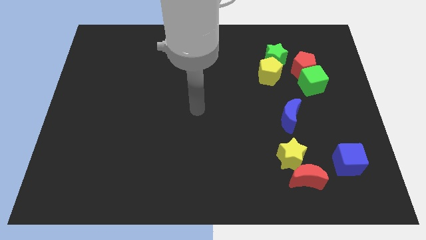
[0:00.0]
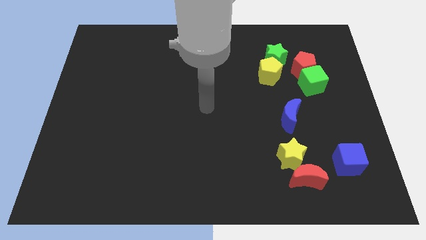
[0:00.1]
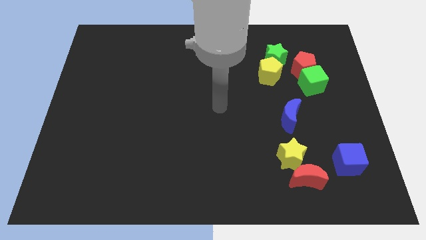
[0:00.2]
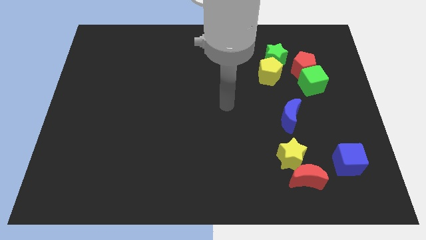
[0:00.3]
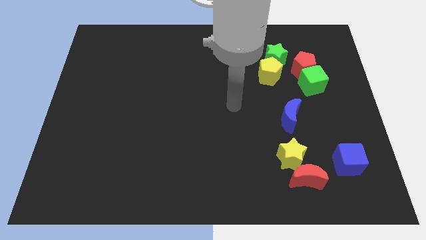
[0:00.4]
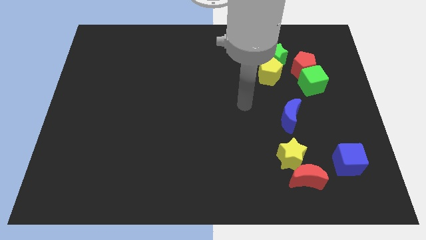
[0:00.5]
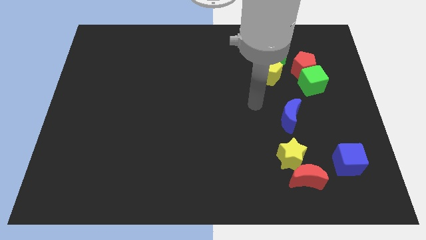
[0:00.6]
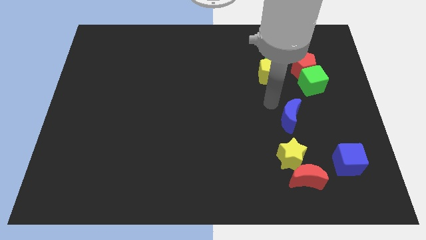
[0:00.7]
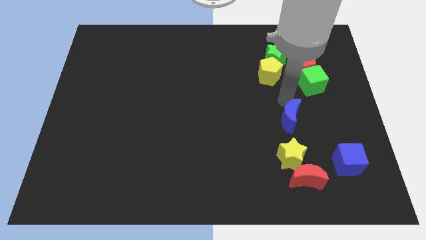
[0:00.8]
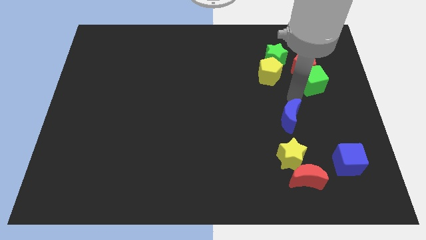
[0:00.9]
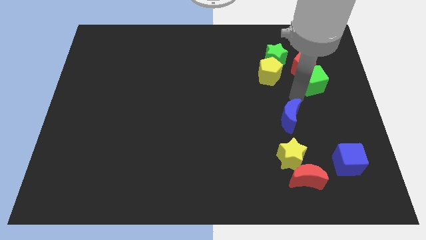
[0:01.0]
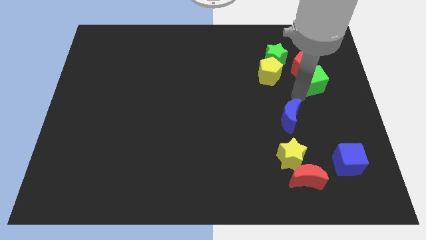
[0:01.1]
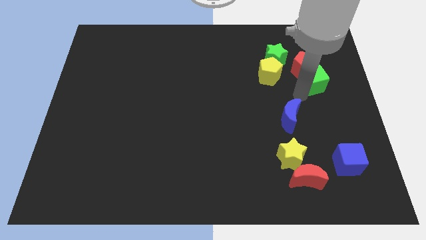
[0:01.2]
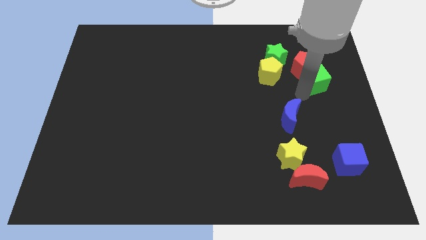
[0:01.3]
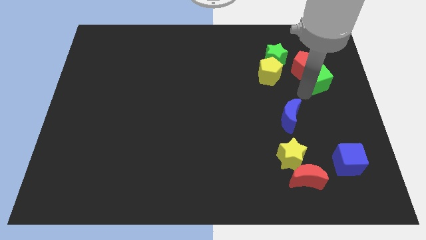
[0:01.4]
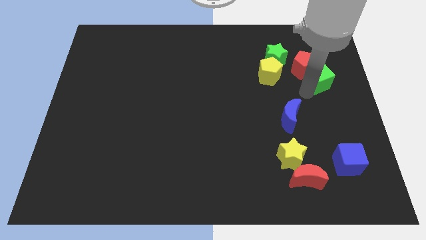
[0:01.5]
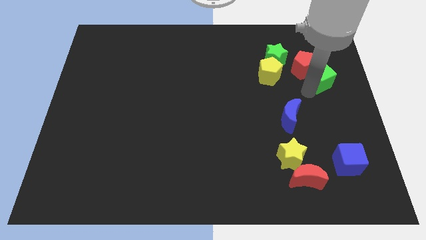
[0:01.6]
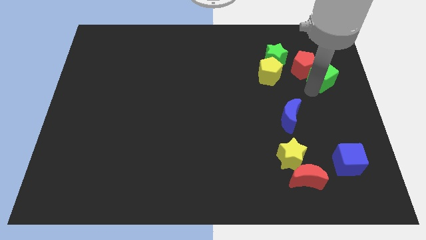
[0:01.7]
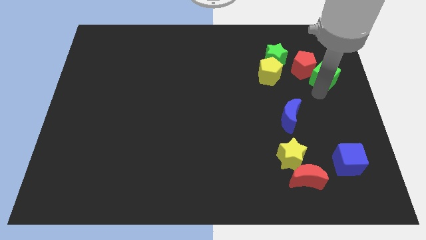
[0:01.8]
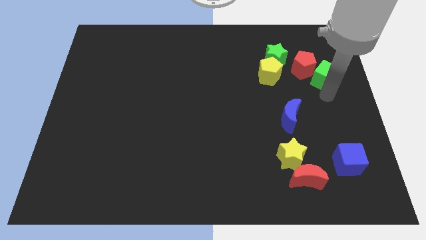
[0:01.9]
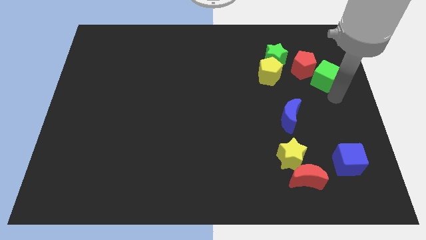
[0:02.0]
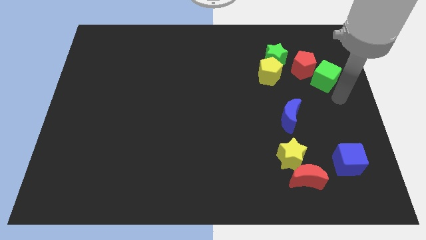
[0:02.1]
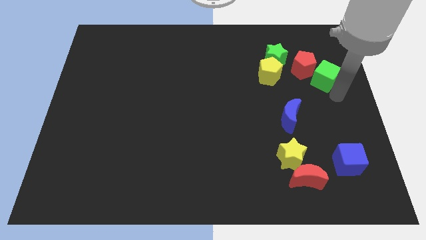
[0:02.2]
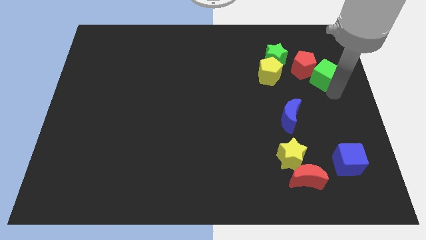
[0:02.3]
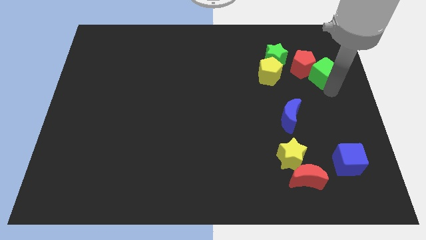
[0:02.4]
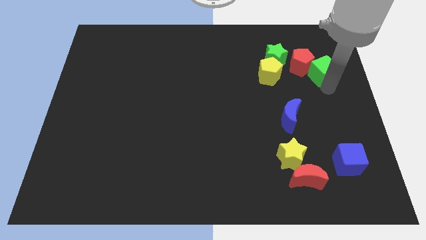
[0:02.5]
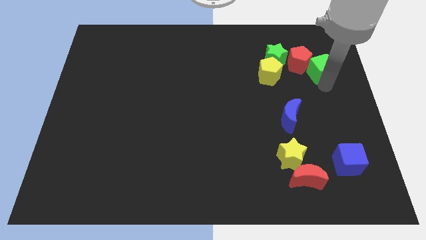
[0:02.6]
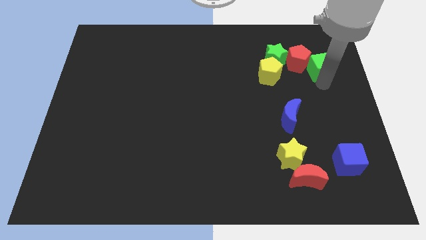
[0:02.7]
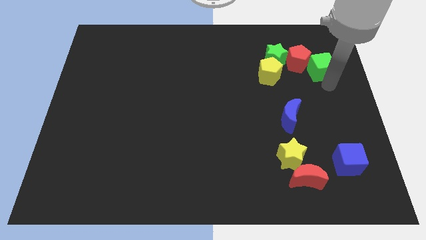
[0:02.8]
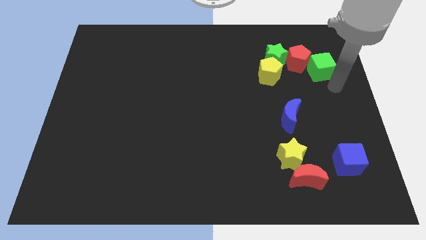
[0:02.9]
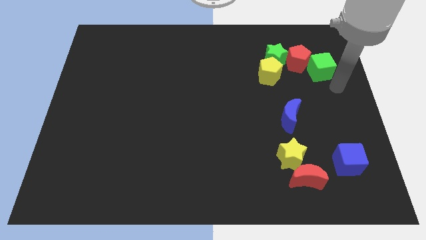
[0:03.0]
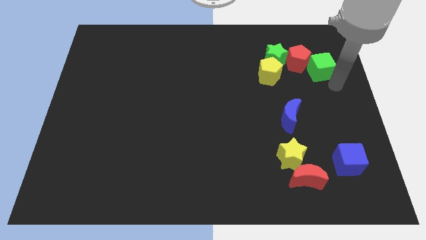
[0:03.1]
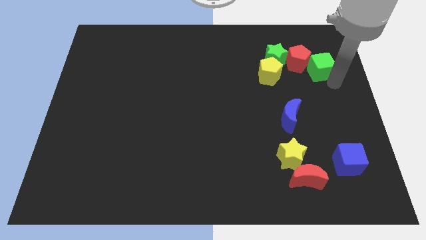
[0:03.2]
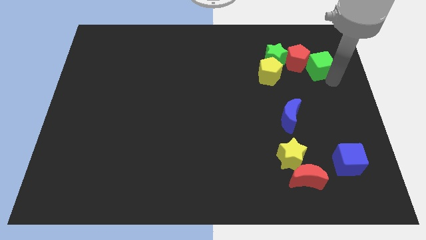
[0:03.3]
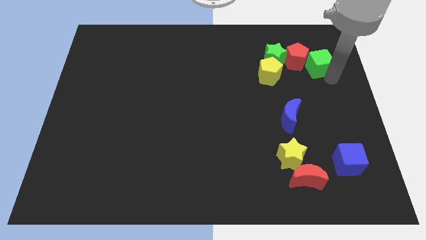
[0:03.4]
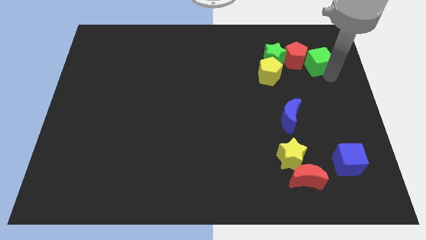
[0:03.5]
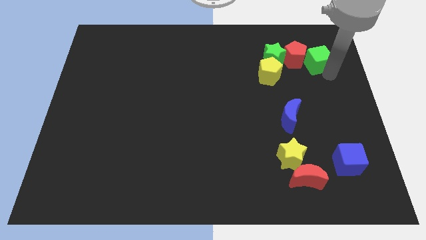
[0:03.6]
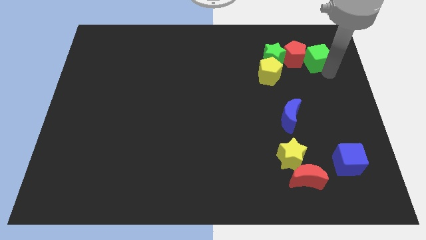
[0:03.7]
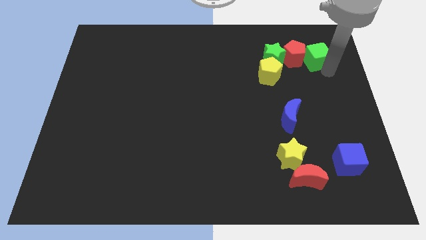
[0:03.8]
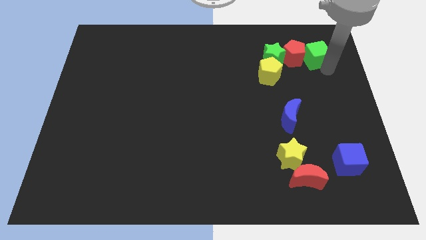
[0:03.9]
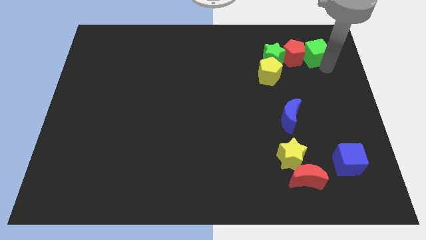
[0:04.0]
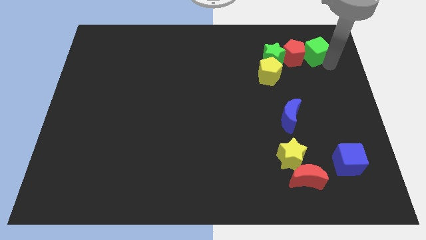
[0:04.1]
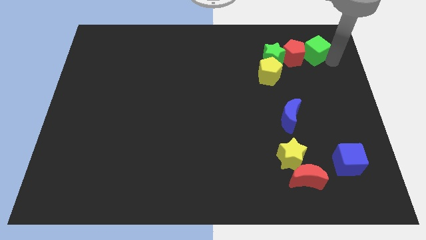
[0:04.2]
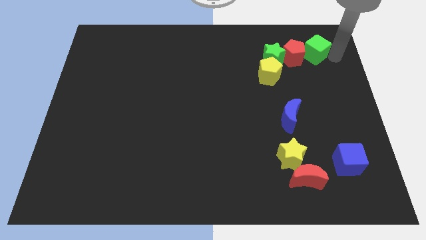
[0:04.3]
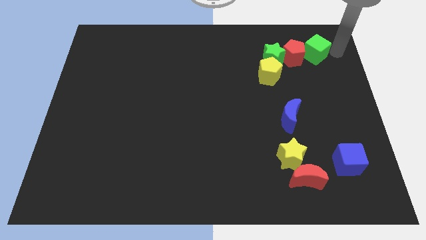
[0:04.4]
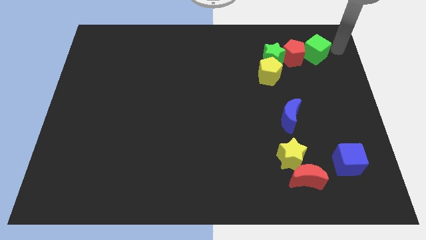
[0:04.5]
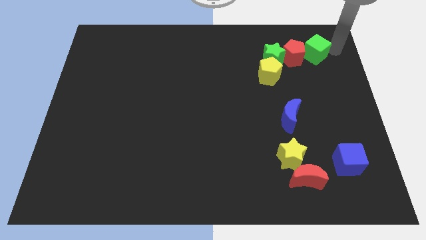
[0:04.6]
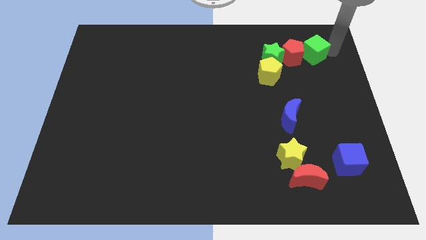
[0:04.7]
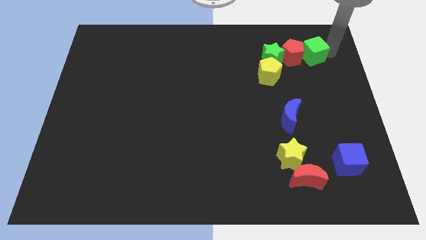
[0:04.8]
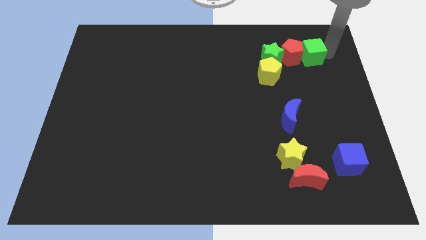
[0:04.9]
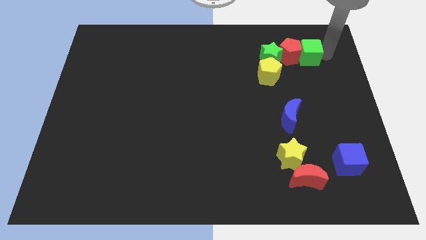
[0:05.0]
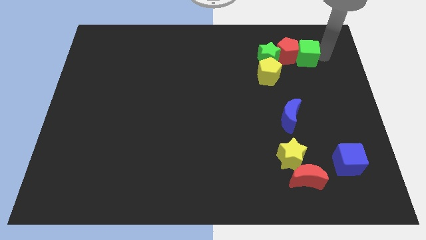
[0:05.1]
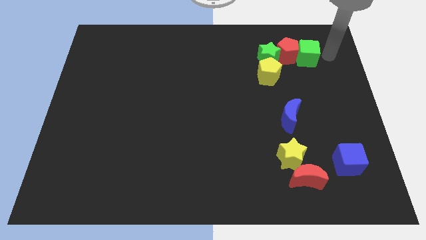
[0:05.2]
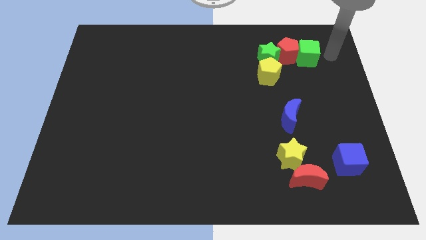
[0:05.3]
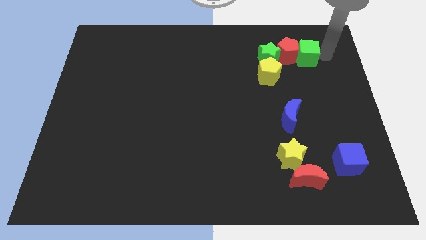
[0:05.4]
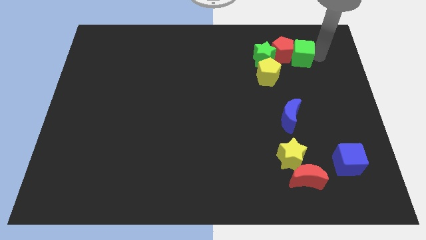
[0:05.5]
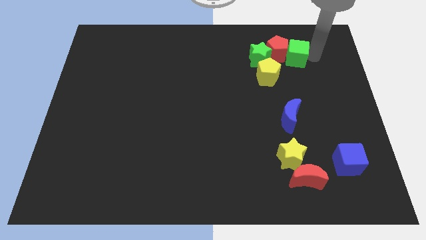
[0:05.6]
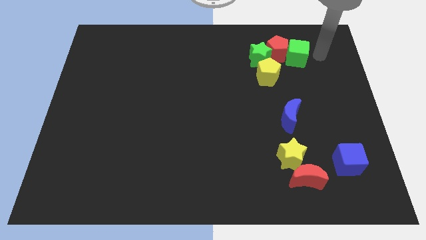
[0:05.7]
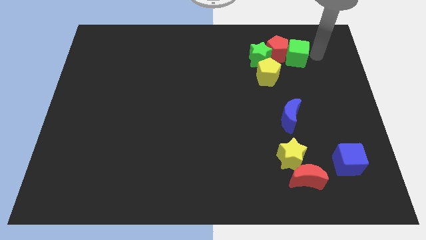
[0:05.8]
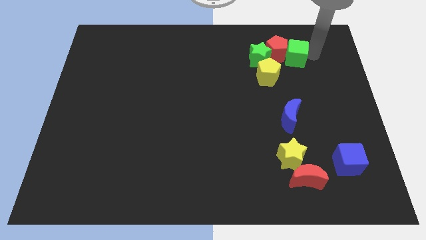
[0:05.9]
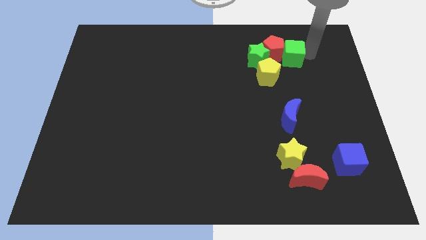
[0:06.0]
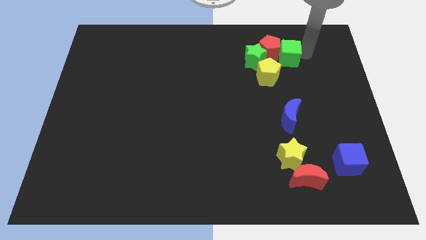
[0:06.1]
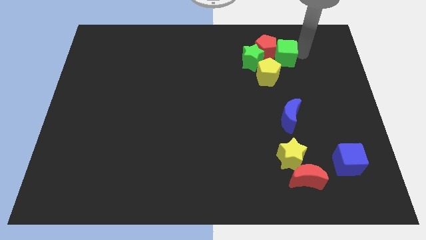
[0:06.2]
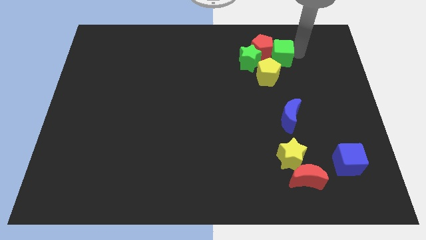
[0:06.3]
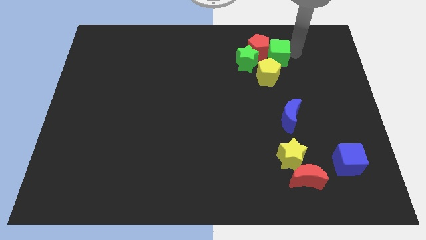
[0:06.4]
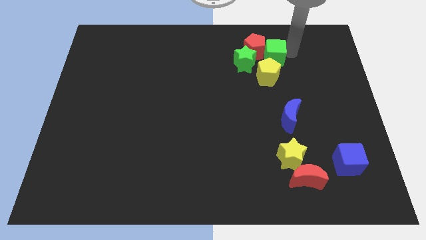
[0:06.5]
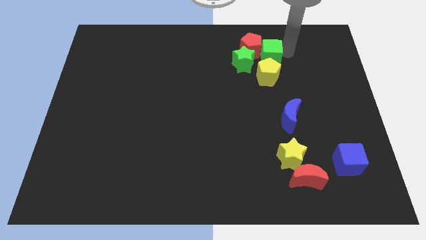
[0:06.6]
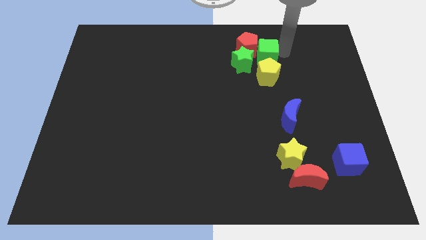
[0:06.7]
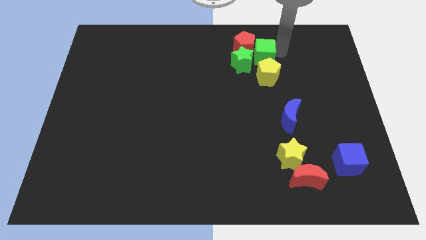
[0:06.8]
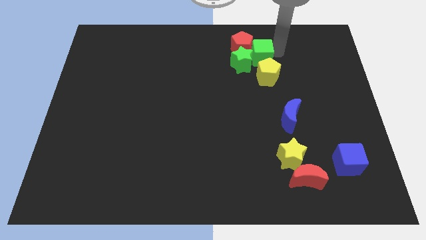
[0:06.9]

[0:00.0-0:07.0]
put the green cube close to the green star

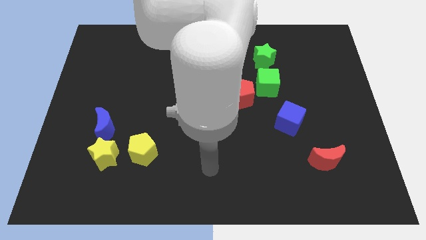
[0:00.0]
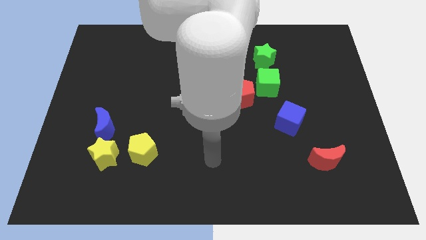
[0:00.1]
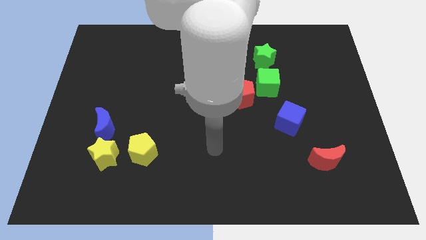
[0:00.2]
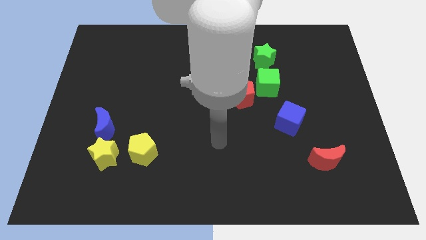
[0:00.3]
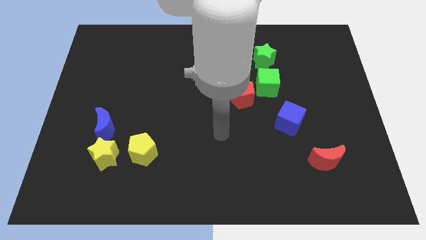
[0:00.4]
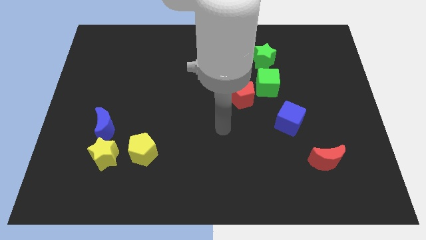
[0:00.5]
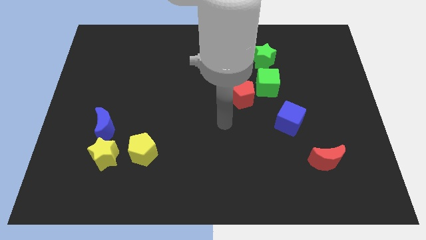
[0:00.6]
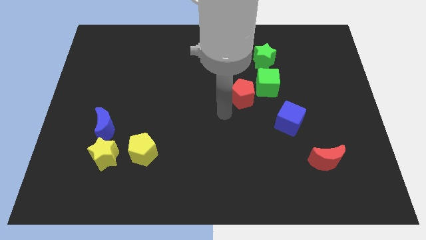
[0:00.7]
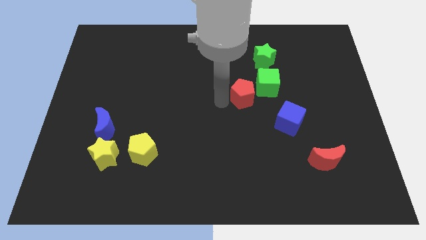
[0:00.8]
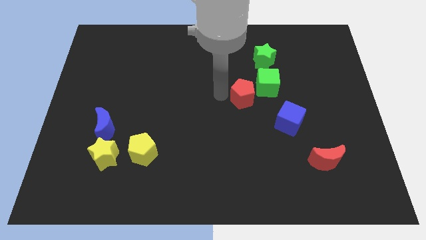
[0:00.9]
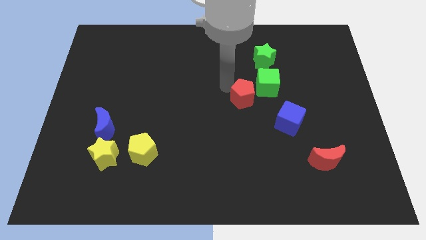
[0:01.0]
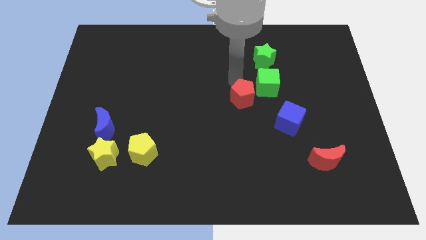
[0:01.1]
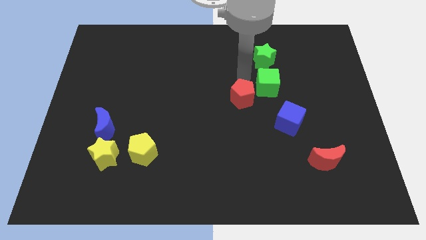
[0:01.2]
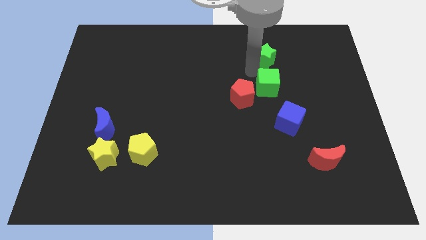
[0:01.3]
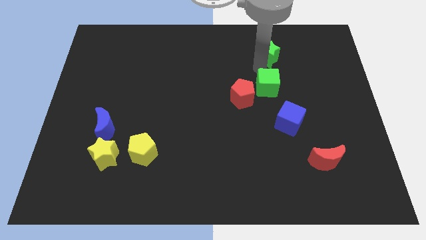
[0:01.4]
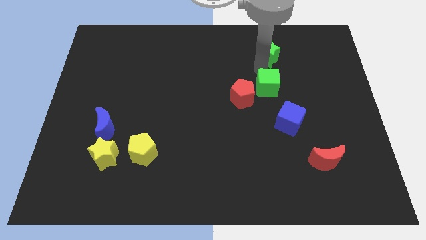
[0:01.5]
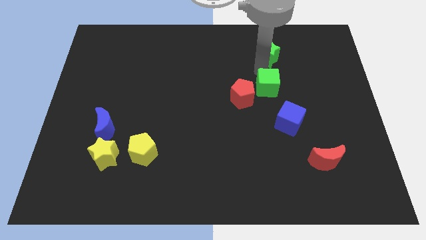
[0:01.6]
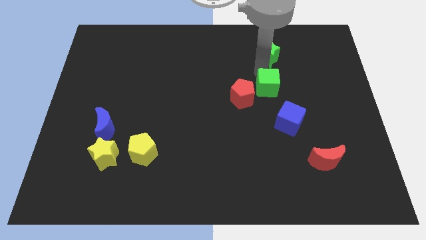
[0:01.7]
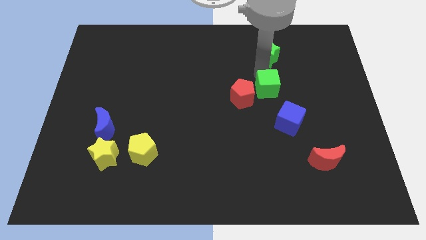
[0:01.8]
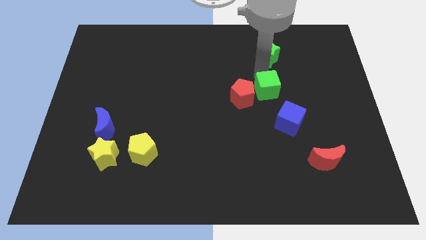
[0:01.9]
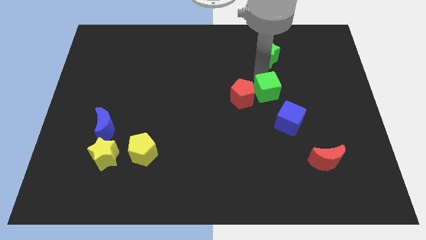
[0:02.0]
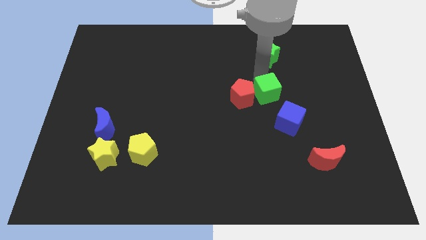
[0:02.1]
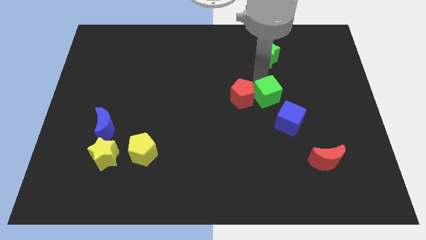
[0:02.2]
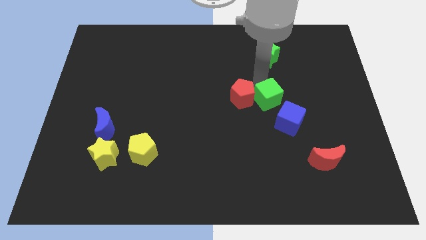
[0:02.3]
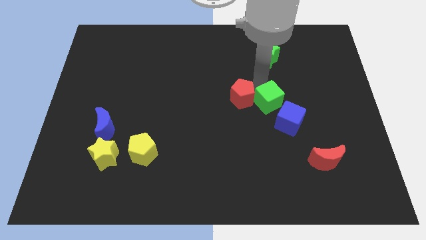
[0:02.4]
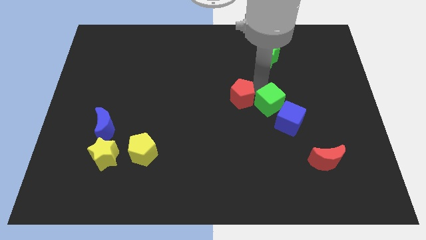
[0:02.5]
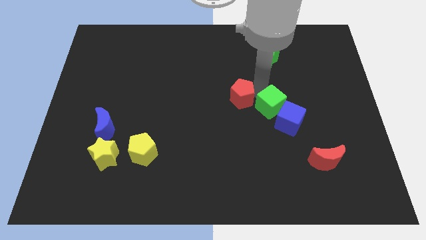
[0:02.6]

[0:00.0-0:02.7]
slide the green cube close to the blue cube
